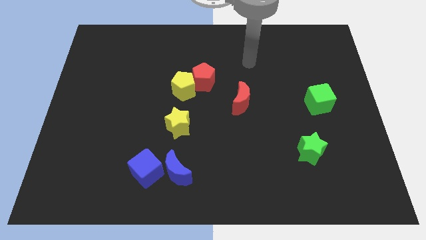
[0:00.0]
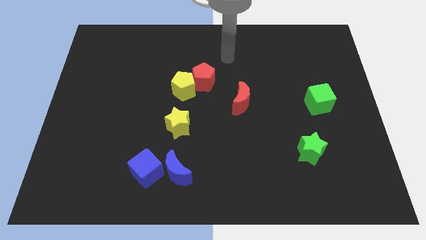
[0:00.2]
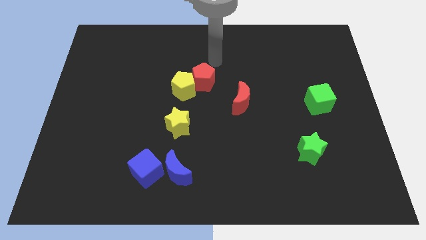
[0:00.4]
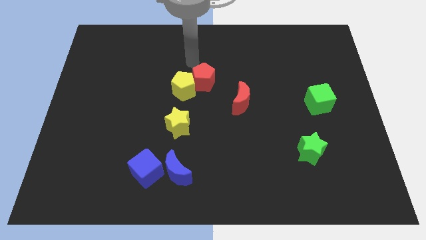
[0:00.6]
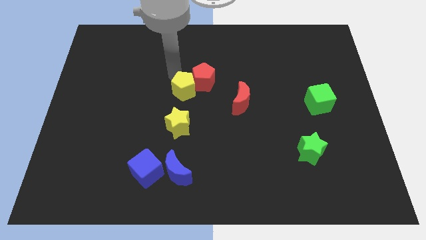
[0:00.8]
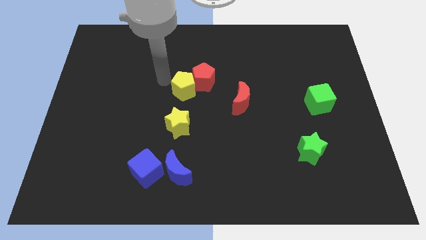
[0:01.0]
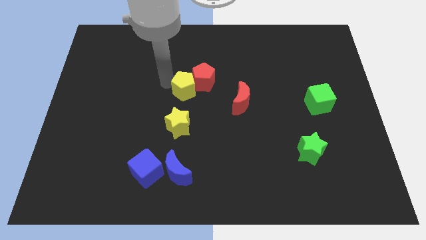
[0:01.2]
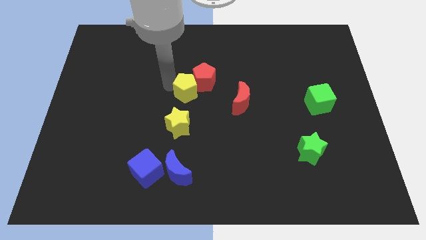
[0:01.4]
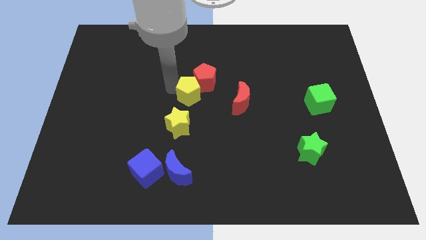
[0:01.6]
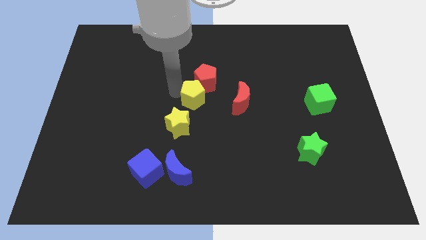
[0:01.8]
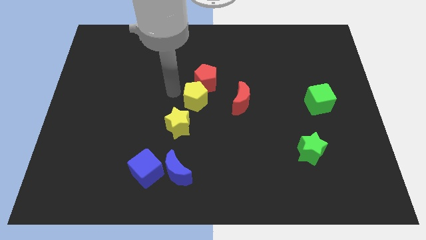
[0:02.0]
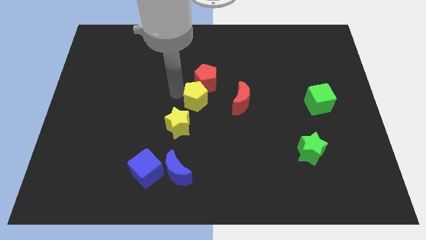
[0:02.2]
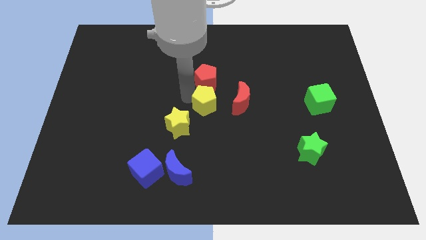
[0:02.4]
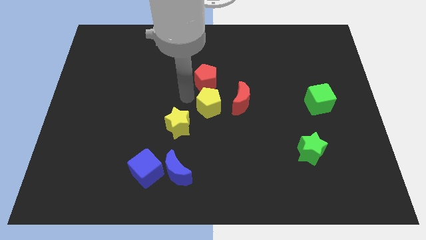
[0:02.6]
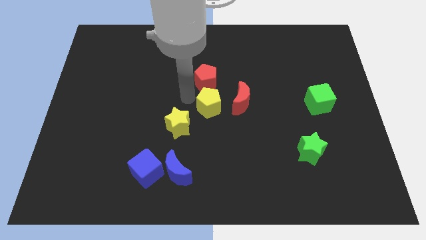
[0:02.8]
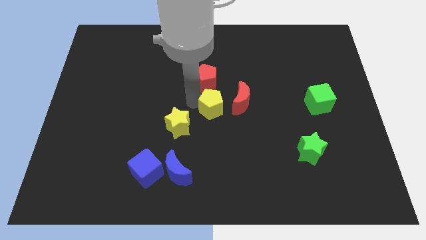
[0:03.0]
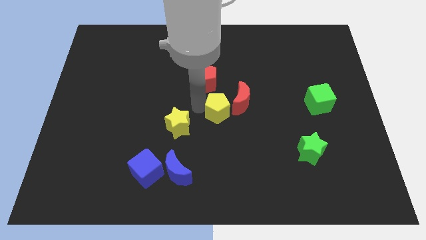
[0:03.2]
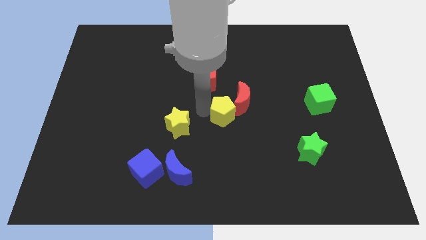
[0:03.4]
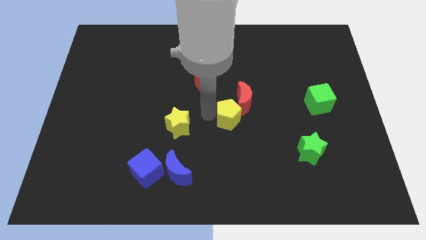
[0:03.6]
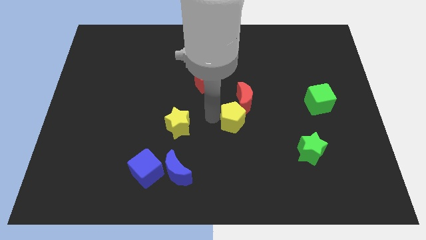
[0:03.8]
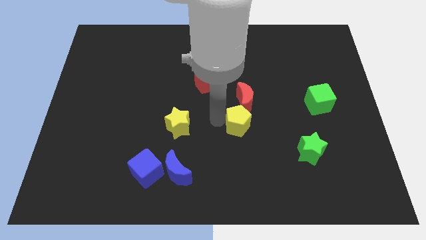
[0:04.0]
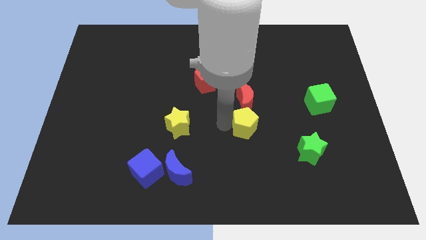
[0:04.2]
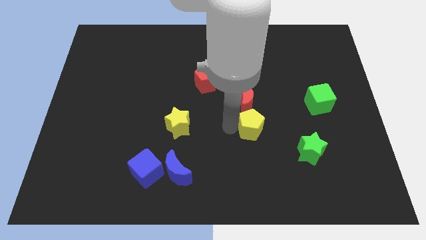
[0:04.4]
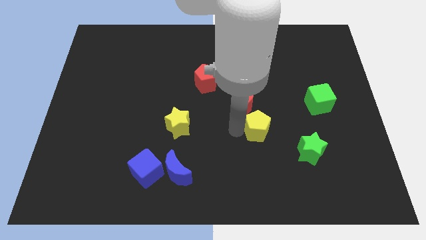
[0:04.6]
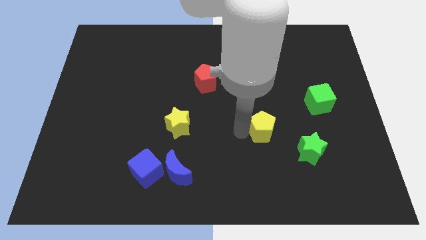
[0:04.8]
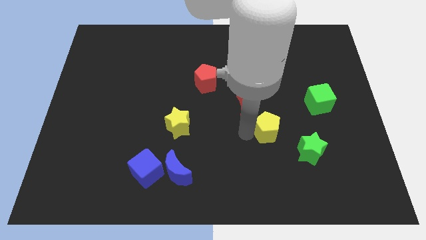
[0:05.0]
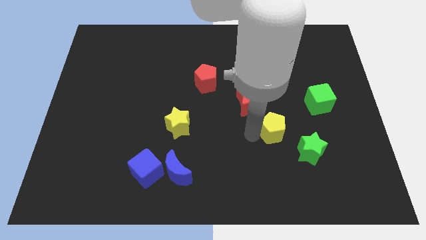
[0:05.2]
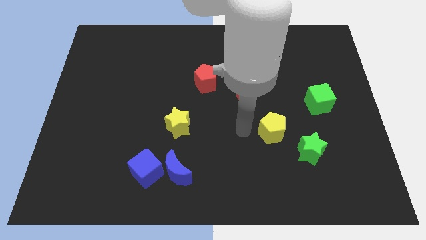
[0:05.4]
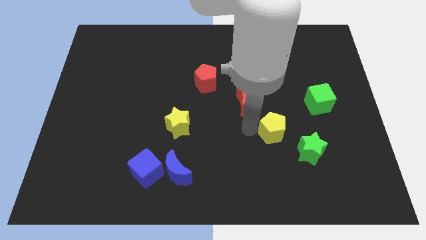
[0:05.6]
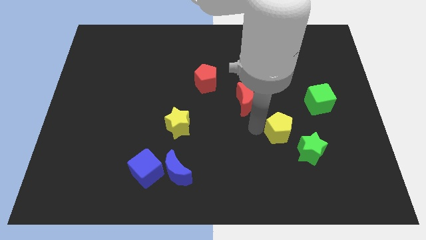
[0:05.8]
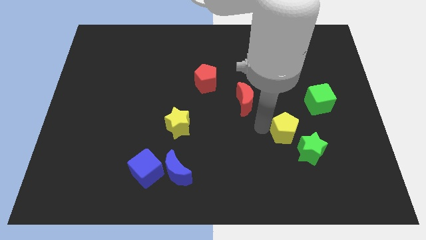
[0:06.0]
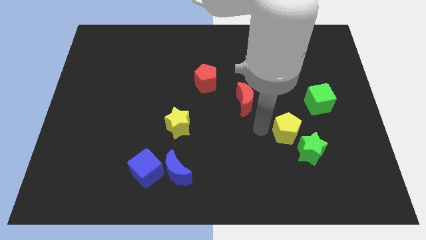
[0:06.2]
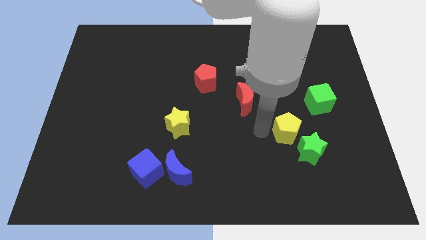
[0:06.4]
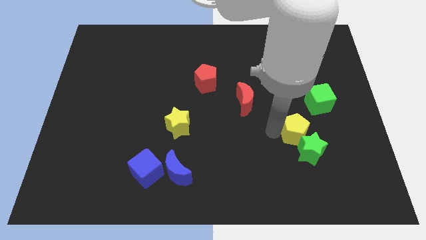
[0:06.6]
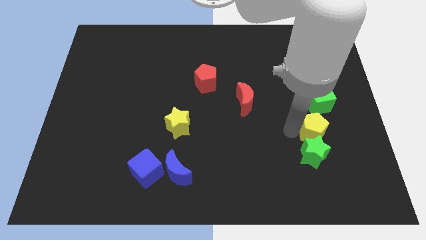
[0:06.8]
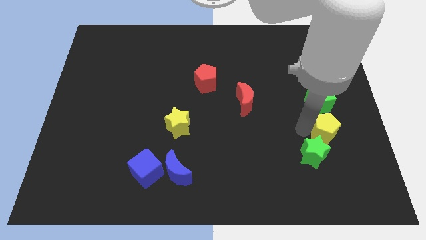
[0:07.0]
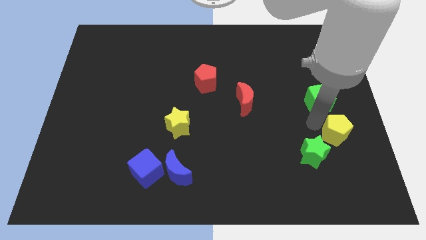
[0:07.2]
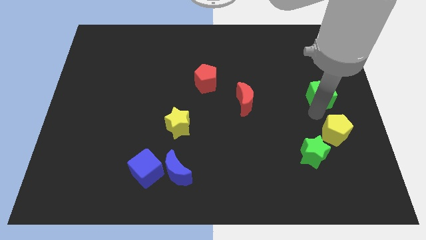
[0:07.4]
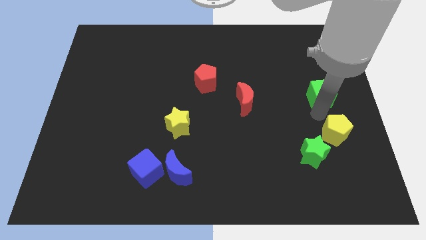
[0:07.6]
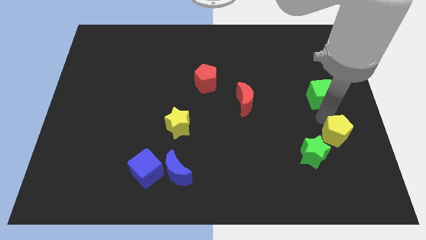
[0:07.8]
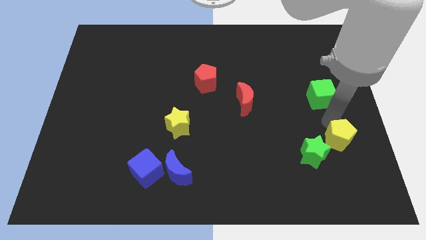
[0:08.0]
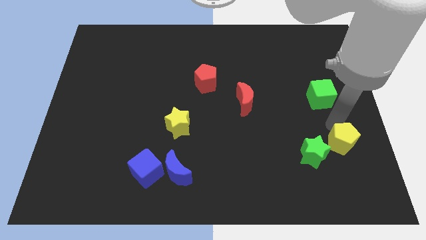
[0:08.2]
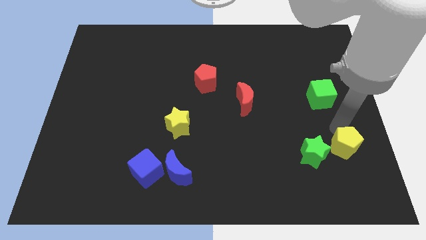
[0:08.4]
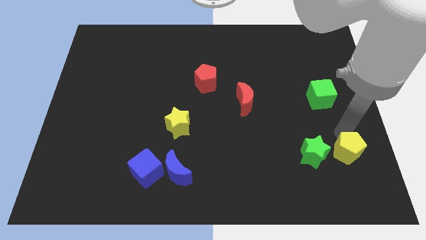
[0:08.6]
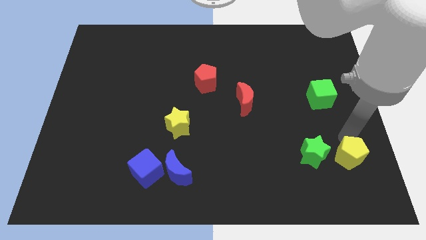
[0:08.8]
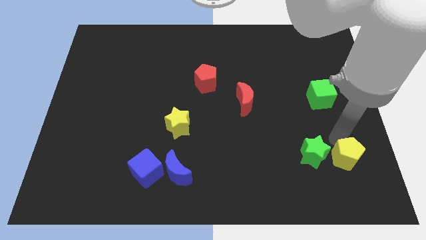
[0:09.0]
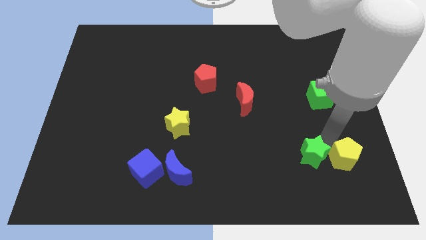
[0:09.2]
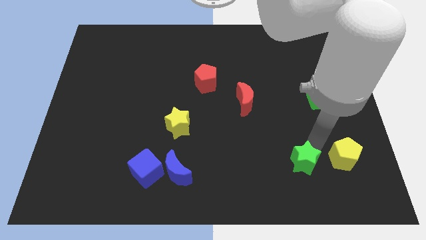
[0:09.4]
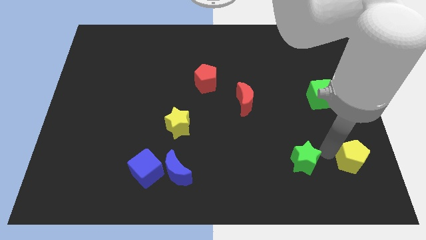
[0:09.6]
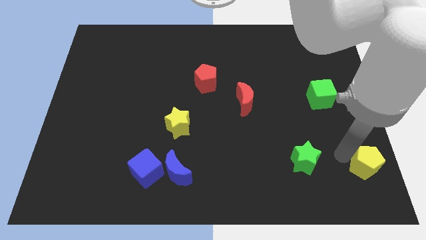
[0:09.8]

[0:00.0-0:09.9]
push the yellow pentagon to the bottom right of the board

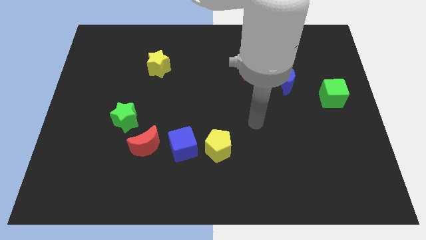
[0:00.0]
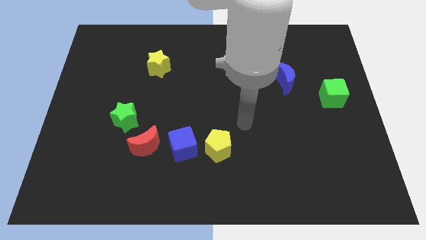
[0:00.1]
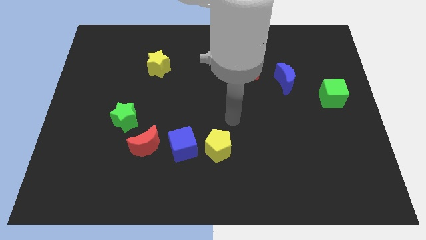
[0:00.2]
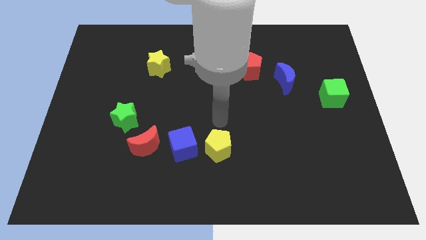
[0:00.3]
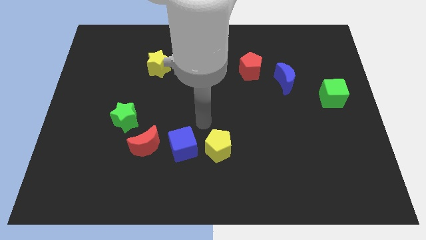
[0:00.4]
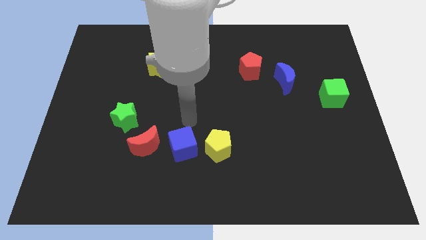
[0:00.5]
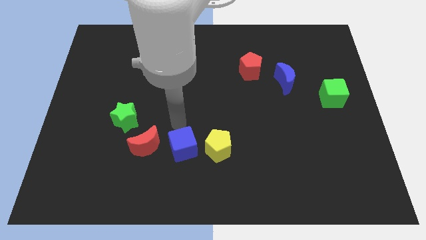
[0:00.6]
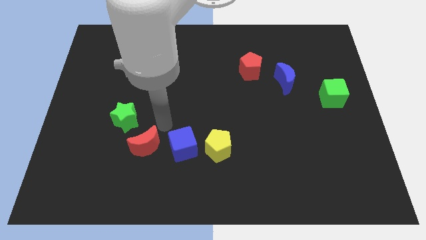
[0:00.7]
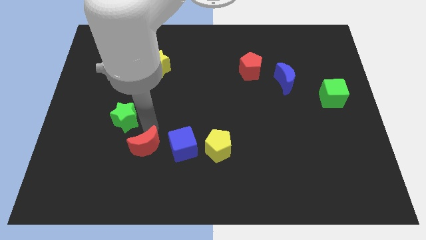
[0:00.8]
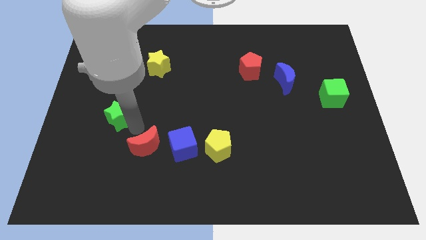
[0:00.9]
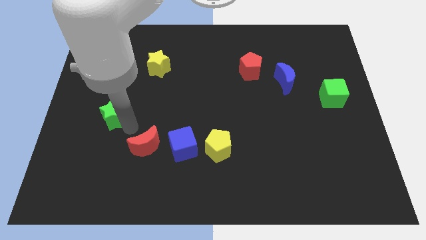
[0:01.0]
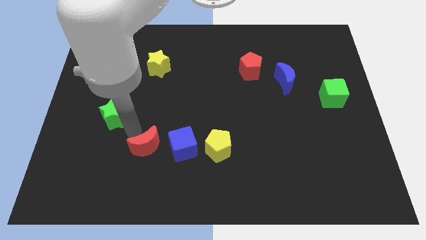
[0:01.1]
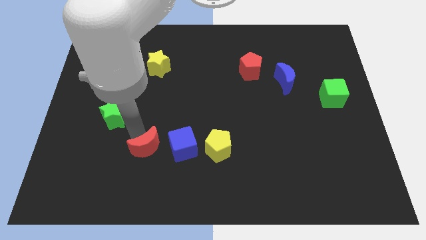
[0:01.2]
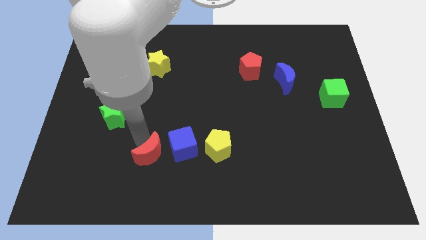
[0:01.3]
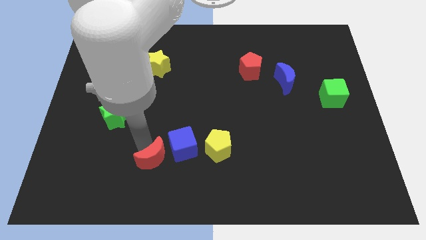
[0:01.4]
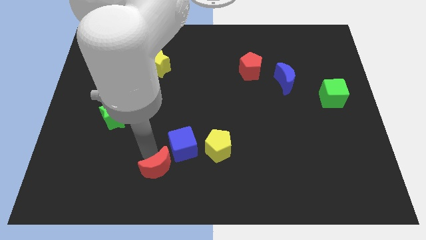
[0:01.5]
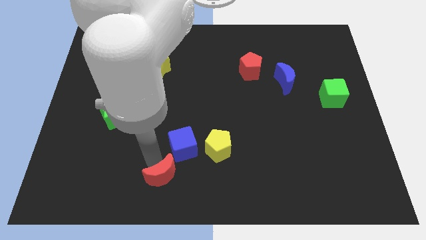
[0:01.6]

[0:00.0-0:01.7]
move the red moon to the bottom
